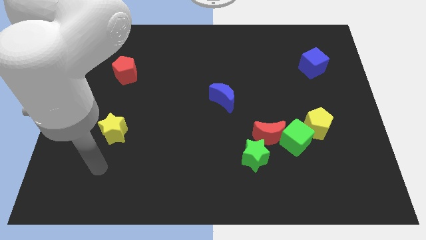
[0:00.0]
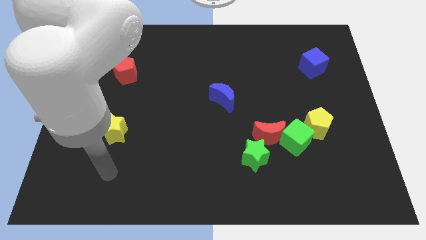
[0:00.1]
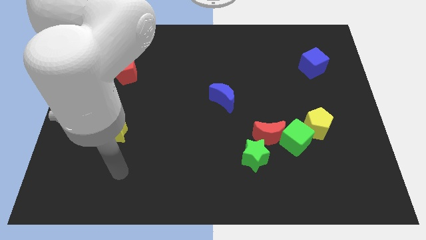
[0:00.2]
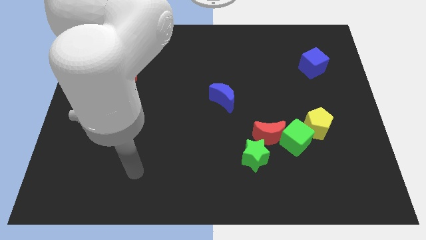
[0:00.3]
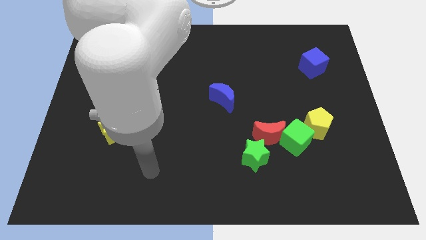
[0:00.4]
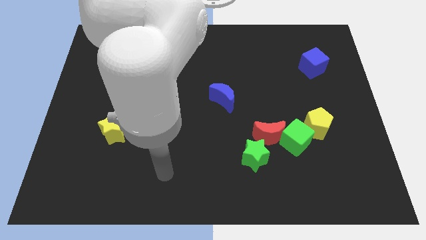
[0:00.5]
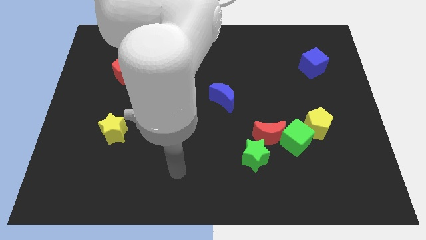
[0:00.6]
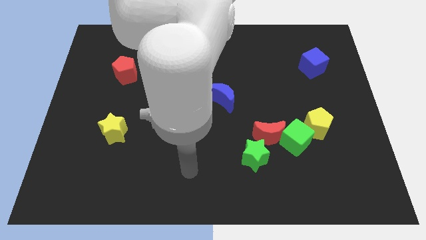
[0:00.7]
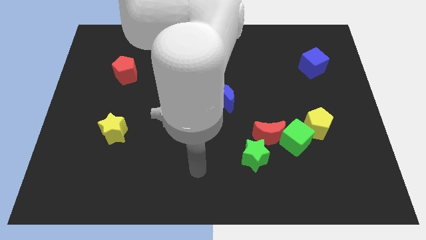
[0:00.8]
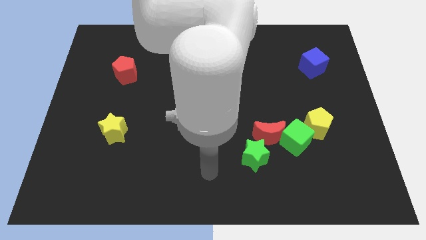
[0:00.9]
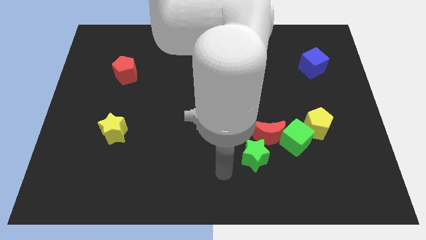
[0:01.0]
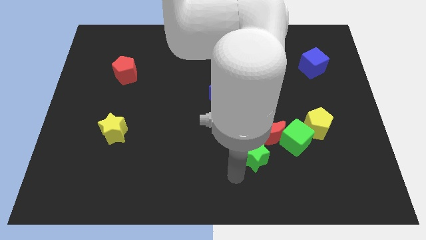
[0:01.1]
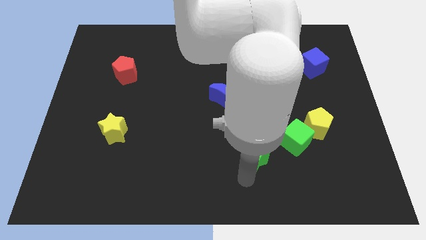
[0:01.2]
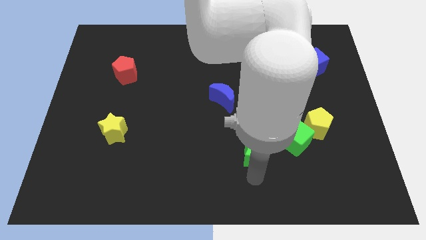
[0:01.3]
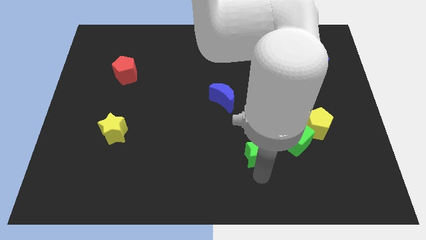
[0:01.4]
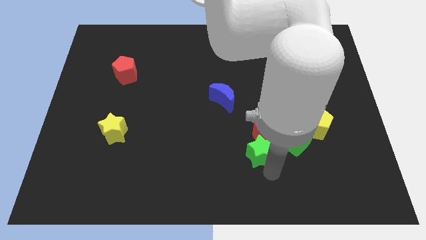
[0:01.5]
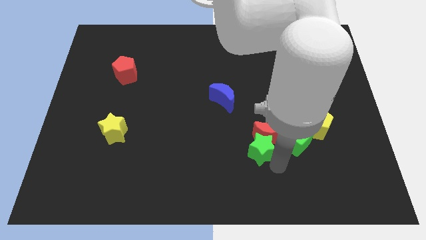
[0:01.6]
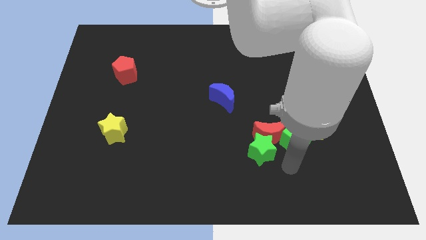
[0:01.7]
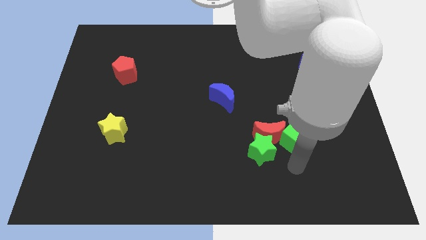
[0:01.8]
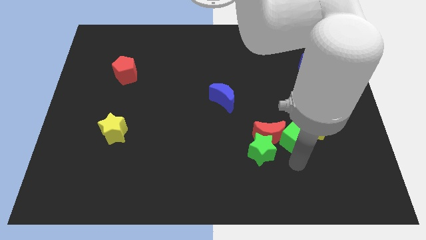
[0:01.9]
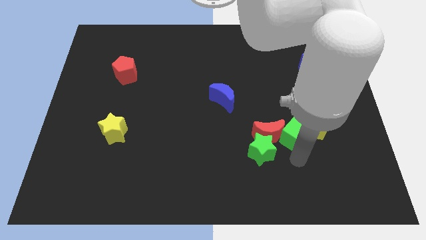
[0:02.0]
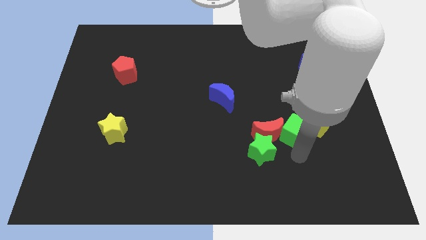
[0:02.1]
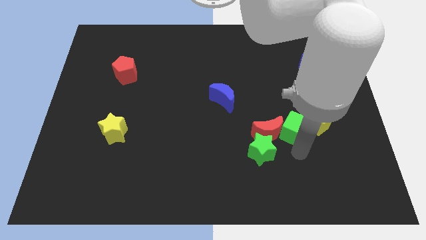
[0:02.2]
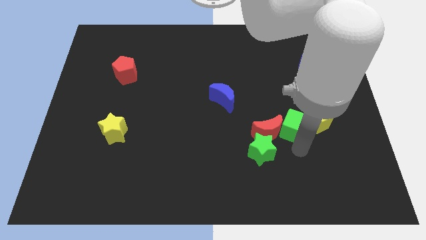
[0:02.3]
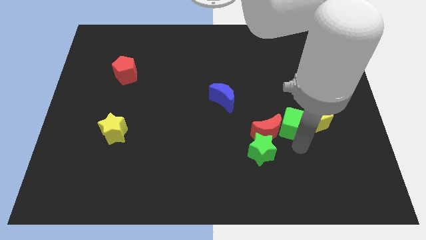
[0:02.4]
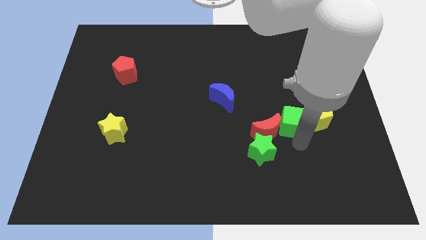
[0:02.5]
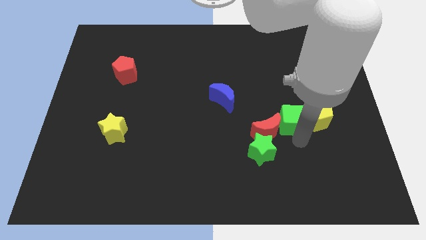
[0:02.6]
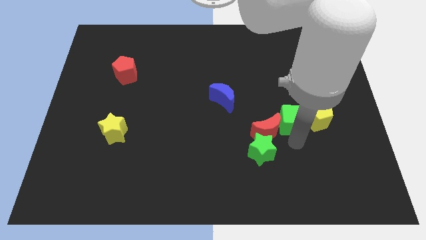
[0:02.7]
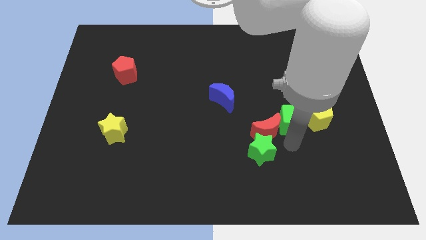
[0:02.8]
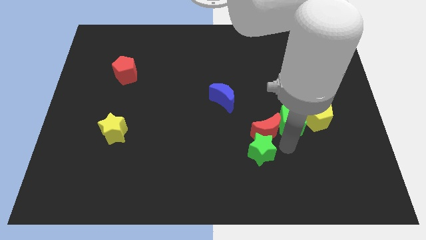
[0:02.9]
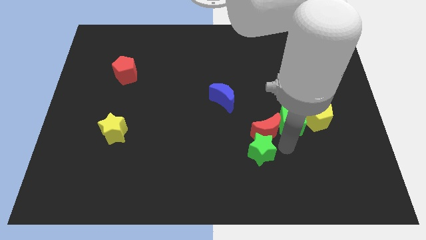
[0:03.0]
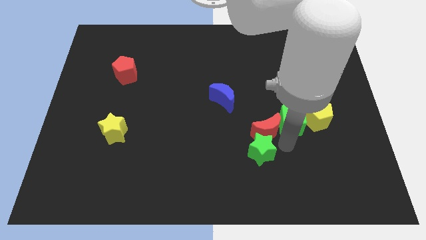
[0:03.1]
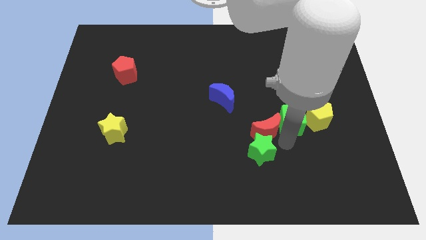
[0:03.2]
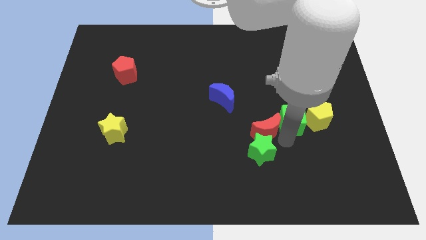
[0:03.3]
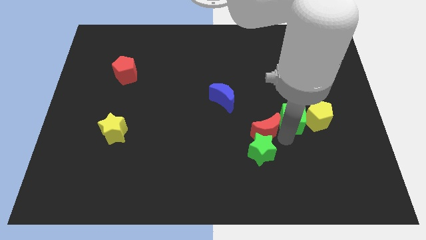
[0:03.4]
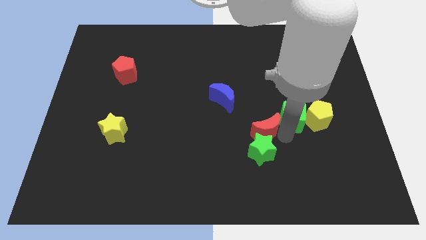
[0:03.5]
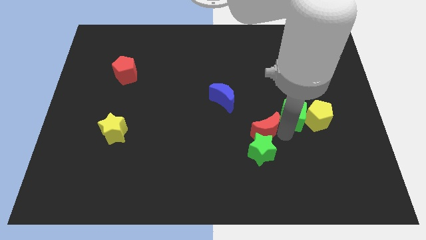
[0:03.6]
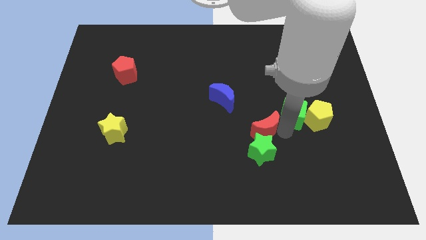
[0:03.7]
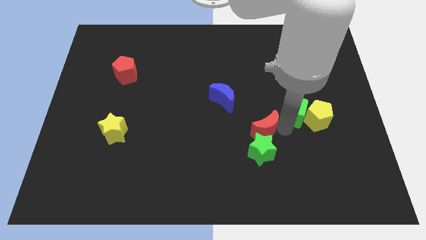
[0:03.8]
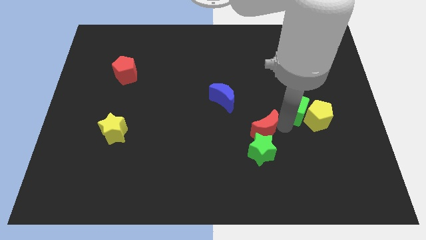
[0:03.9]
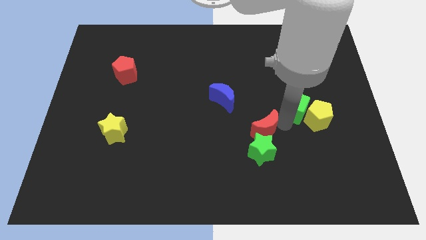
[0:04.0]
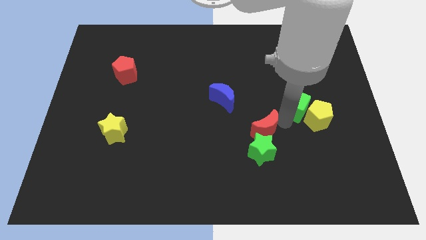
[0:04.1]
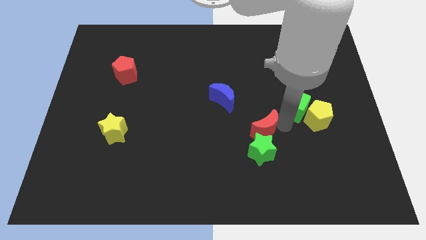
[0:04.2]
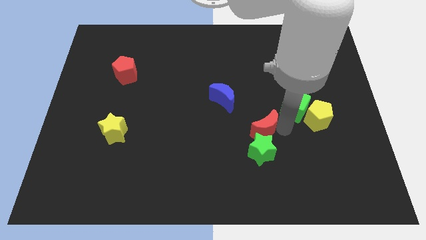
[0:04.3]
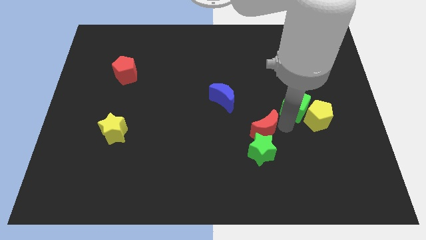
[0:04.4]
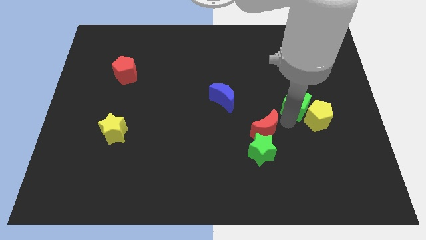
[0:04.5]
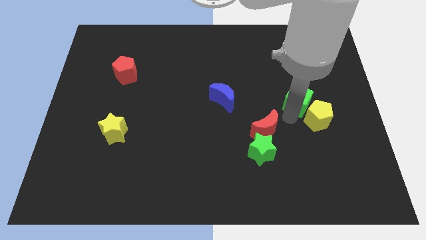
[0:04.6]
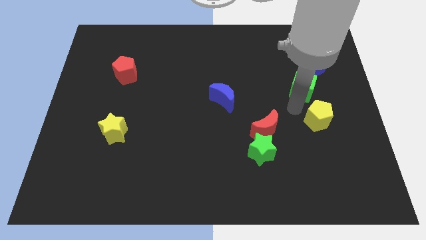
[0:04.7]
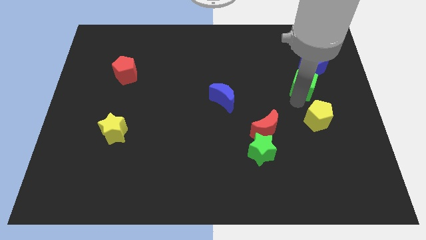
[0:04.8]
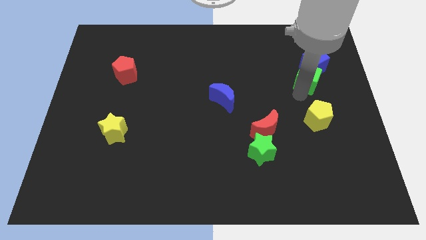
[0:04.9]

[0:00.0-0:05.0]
put the green cube towards the blue cube

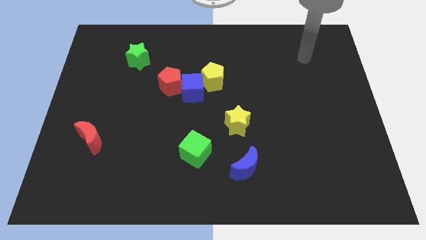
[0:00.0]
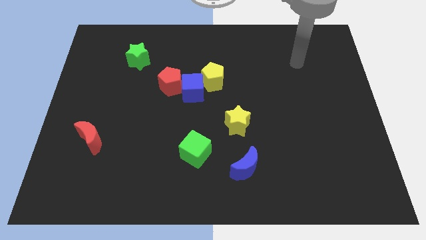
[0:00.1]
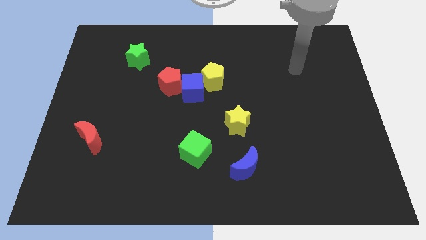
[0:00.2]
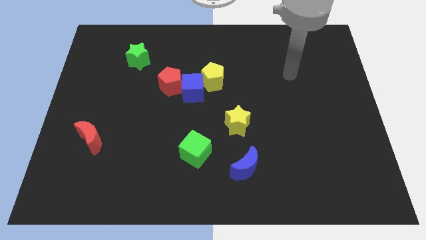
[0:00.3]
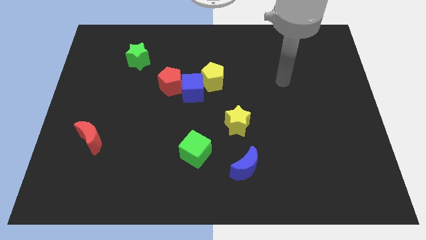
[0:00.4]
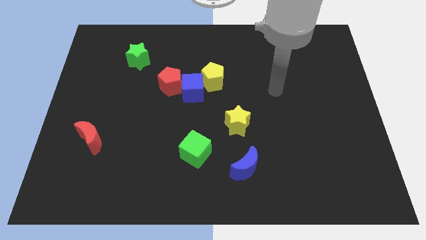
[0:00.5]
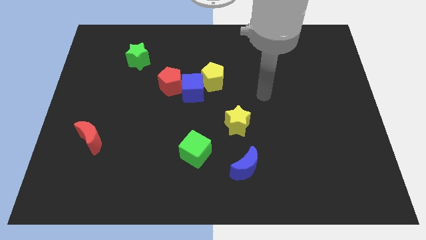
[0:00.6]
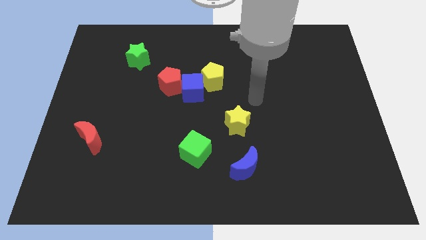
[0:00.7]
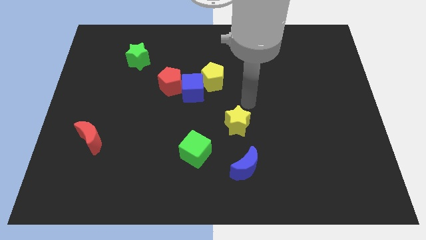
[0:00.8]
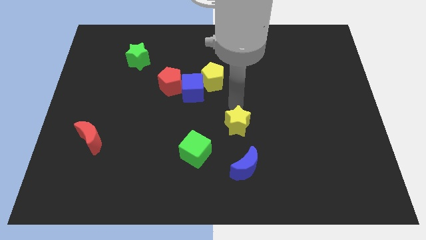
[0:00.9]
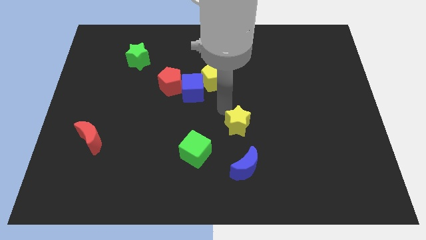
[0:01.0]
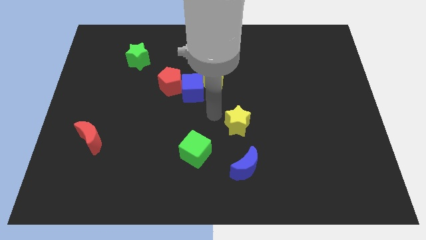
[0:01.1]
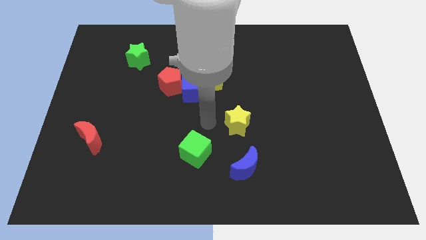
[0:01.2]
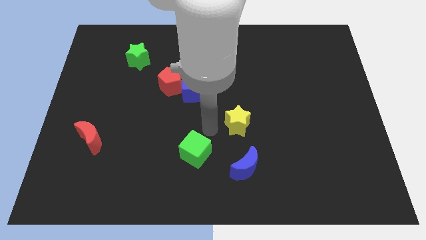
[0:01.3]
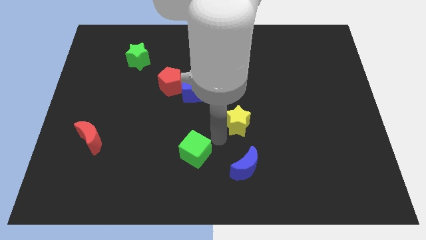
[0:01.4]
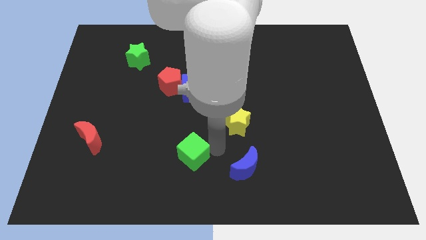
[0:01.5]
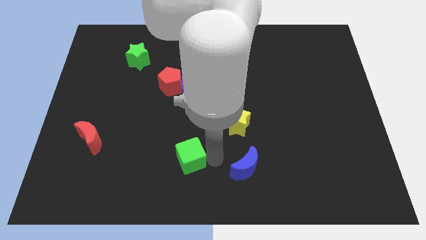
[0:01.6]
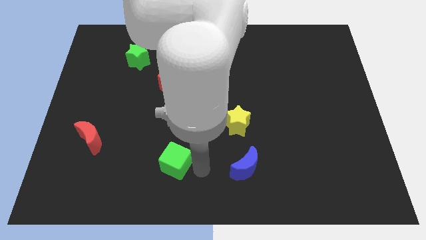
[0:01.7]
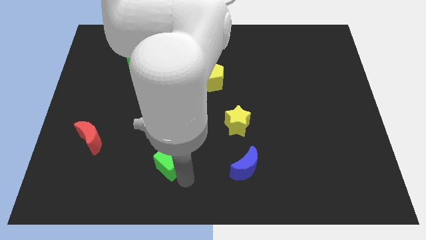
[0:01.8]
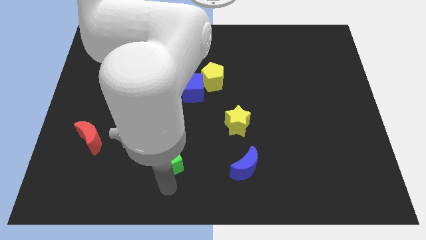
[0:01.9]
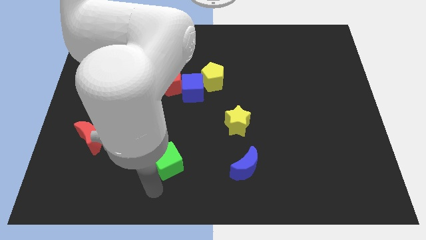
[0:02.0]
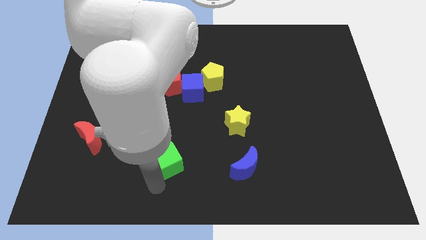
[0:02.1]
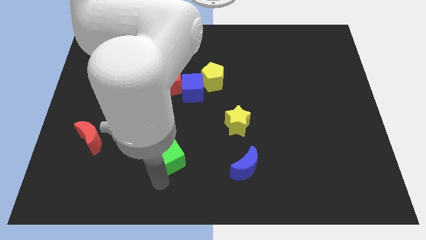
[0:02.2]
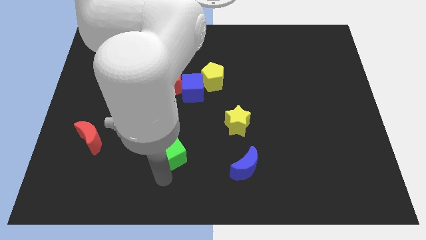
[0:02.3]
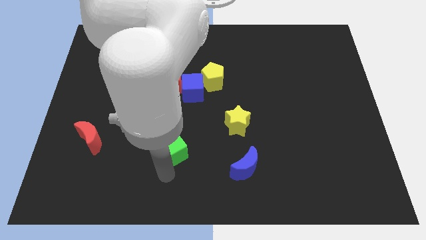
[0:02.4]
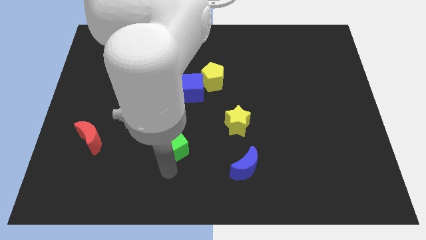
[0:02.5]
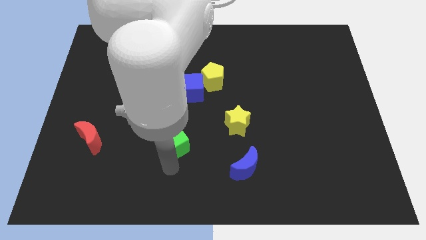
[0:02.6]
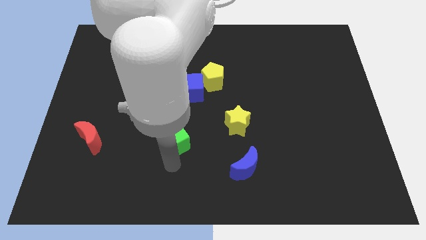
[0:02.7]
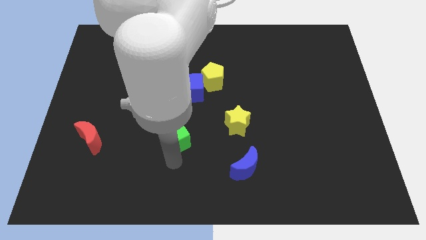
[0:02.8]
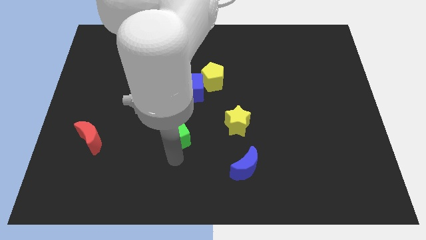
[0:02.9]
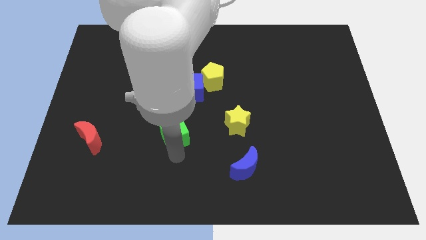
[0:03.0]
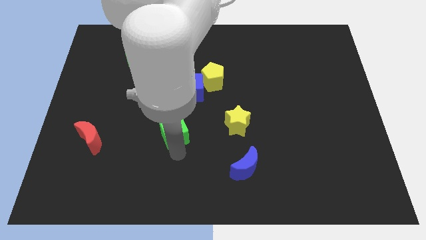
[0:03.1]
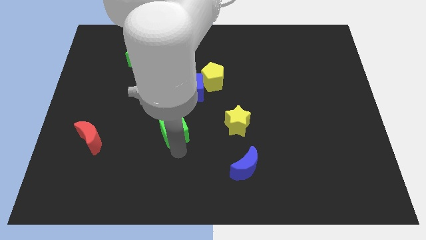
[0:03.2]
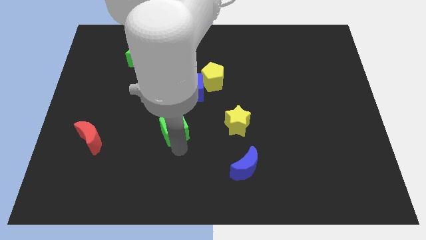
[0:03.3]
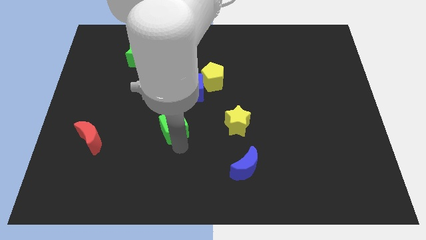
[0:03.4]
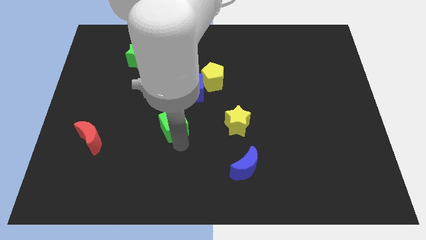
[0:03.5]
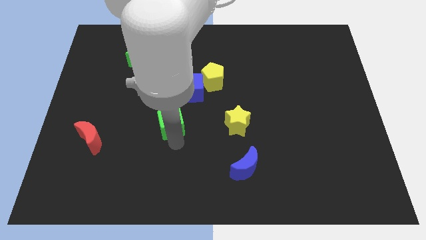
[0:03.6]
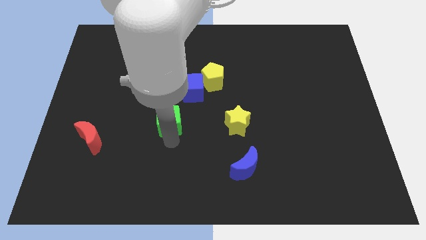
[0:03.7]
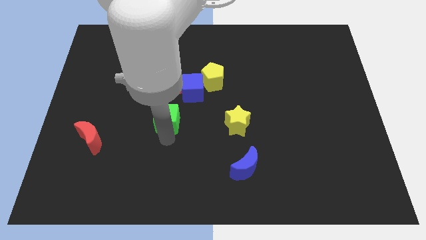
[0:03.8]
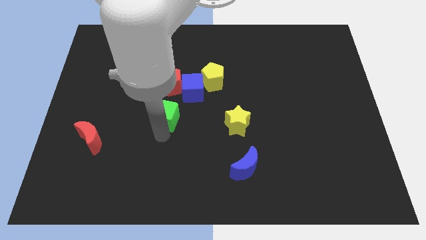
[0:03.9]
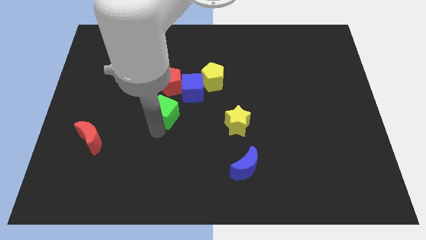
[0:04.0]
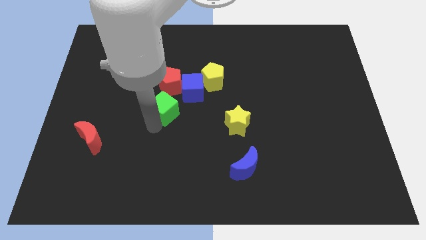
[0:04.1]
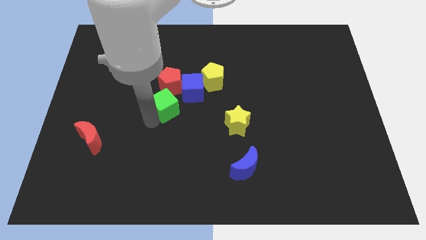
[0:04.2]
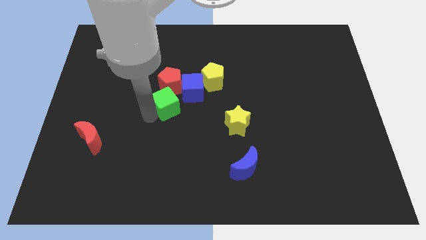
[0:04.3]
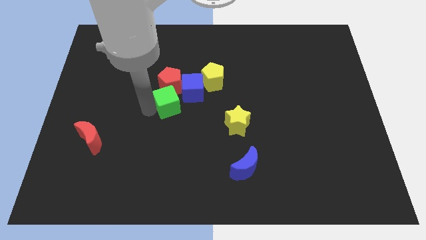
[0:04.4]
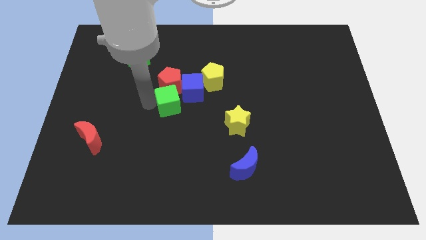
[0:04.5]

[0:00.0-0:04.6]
move the green cube to the red pentagon
